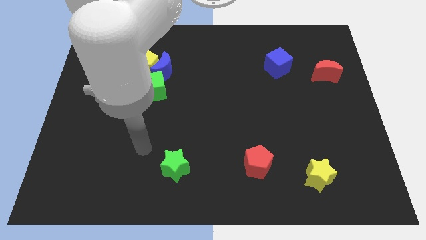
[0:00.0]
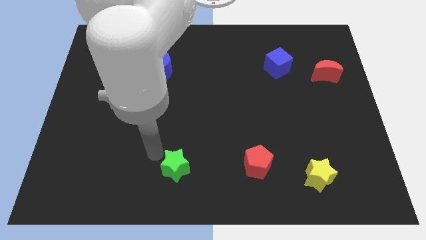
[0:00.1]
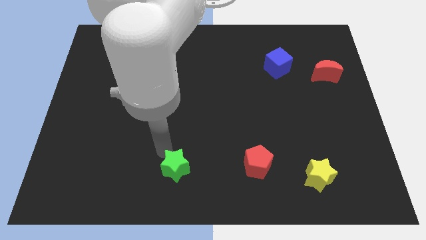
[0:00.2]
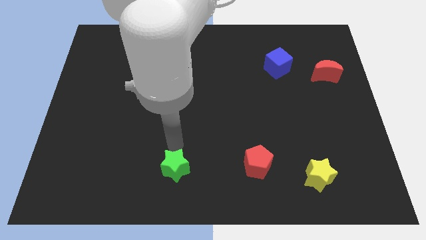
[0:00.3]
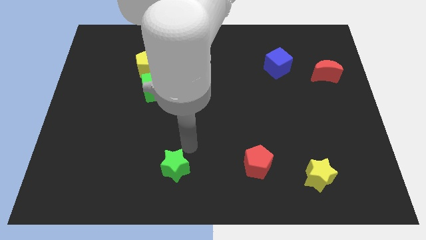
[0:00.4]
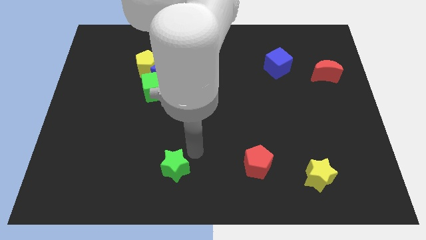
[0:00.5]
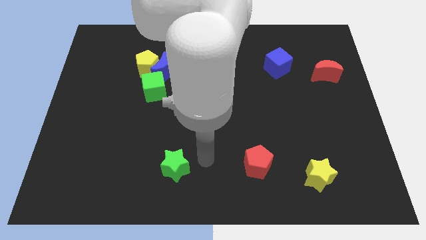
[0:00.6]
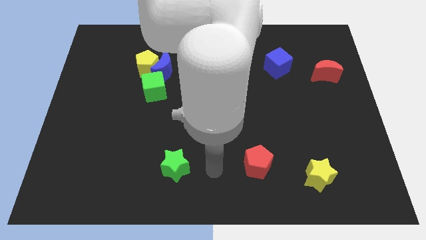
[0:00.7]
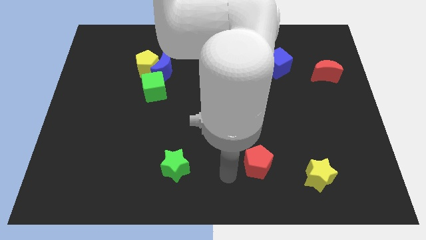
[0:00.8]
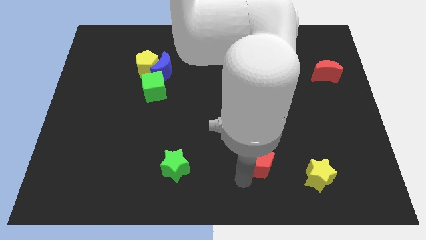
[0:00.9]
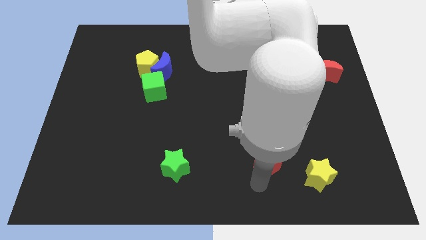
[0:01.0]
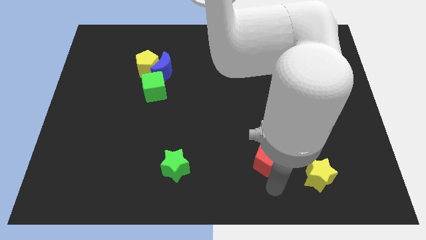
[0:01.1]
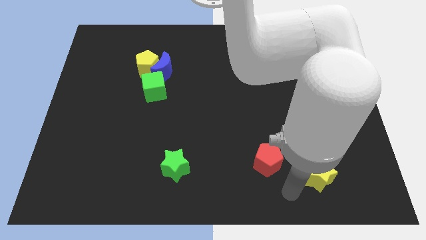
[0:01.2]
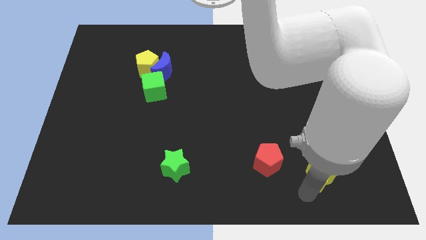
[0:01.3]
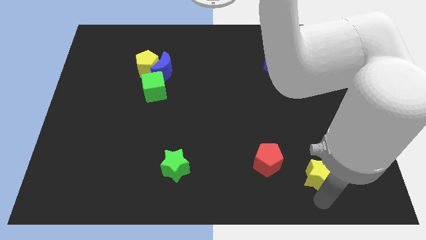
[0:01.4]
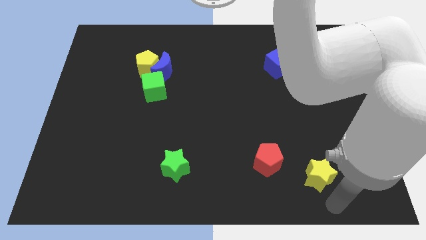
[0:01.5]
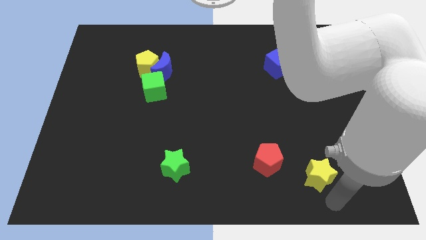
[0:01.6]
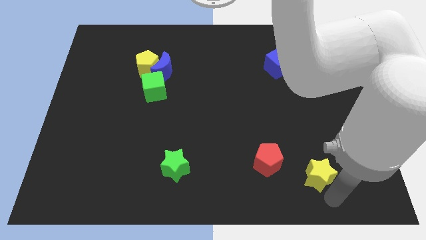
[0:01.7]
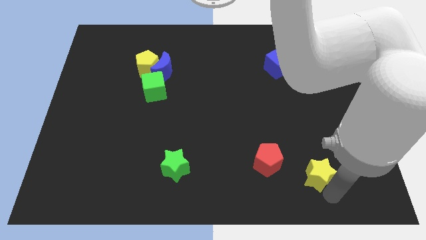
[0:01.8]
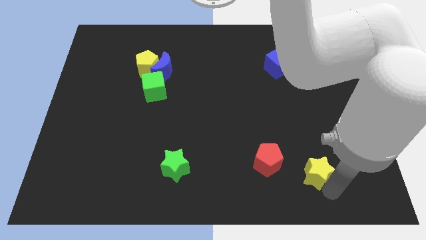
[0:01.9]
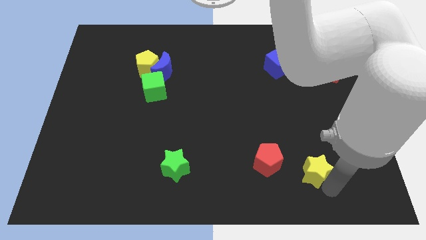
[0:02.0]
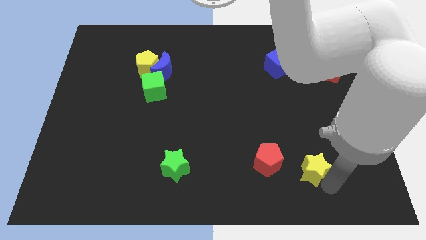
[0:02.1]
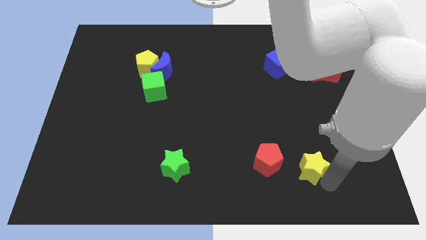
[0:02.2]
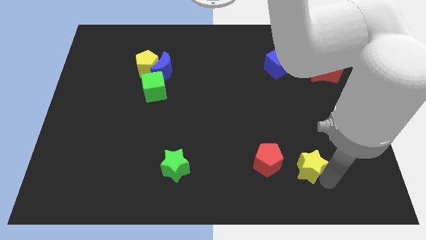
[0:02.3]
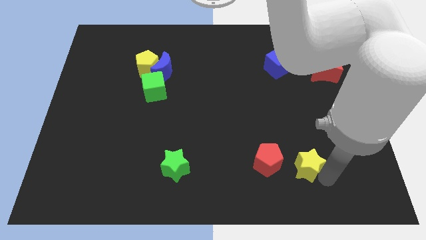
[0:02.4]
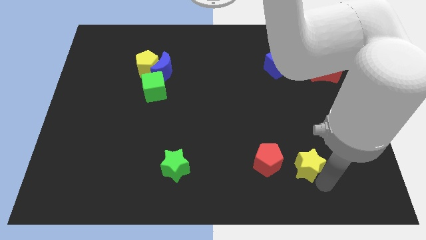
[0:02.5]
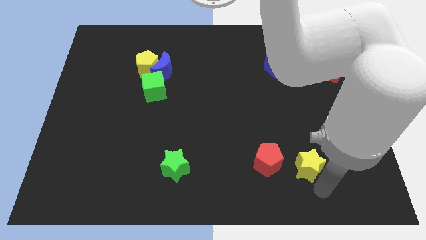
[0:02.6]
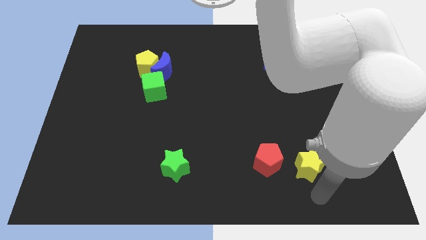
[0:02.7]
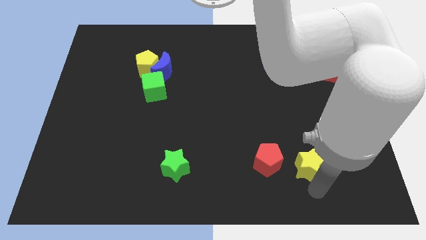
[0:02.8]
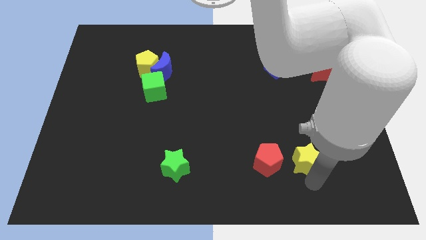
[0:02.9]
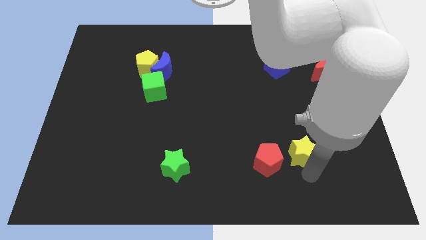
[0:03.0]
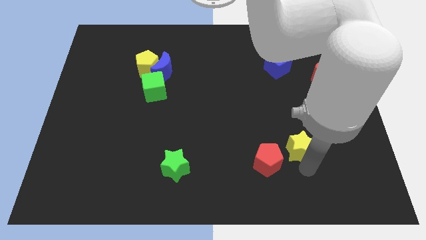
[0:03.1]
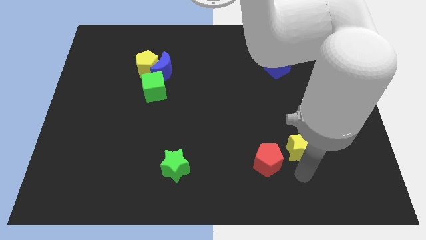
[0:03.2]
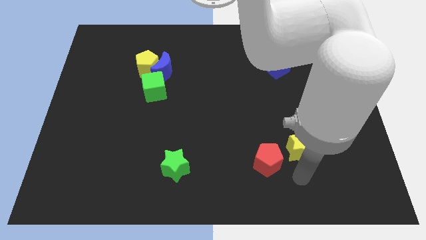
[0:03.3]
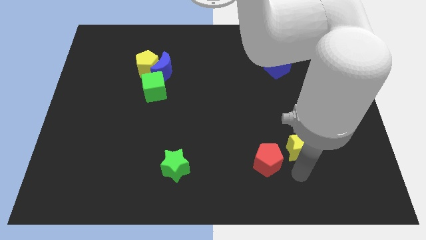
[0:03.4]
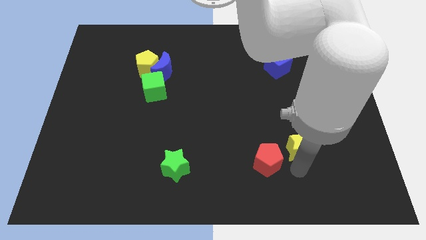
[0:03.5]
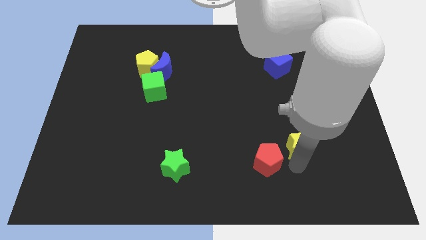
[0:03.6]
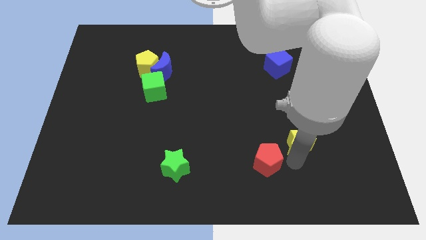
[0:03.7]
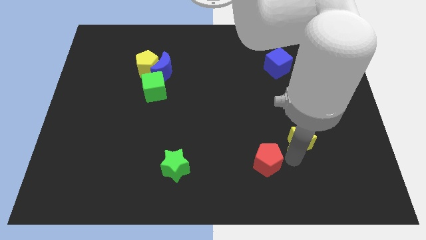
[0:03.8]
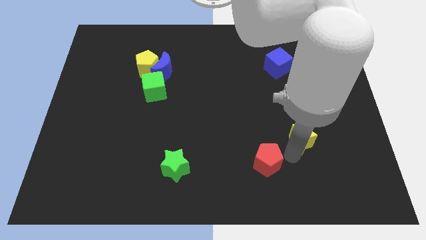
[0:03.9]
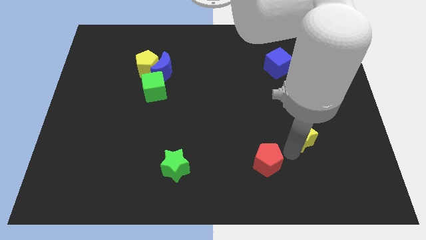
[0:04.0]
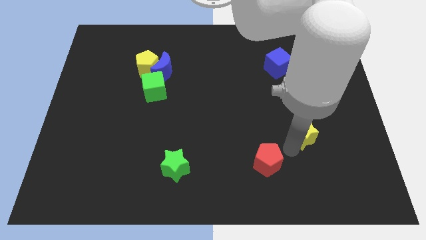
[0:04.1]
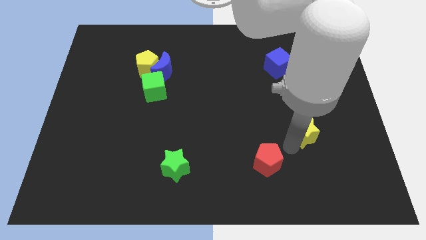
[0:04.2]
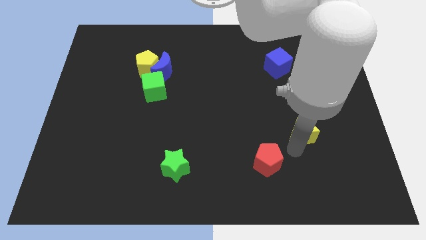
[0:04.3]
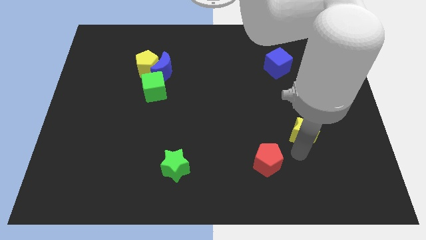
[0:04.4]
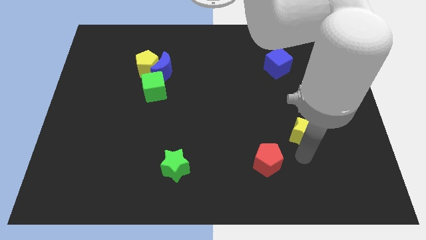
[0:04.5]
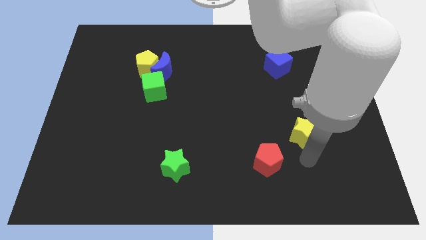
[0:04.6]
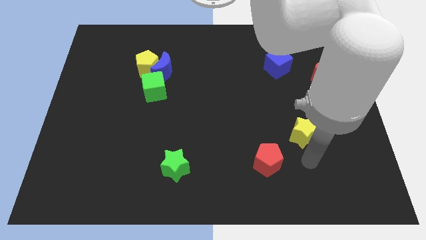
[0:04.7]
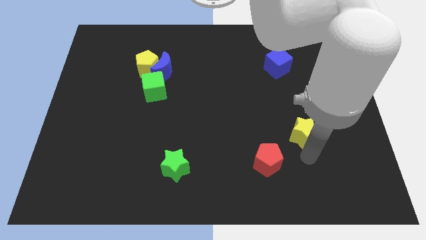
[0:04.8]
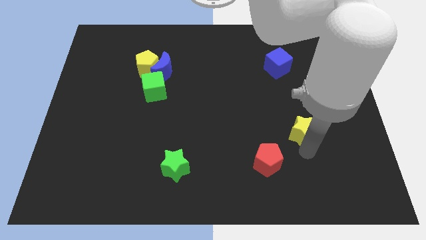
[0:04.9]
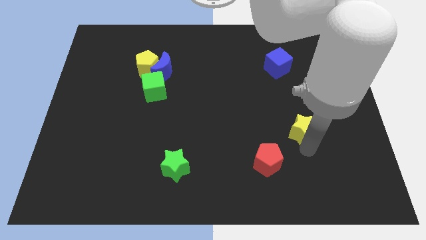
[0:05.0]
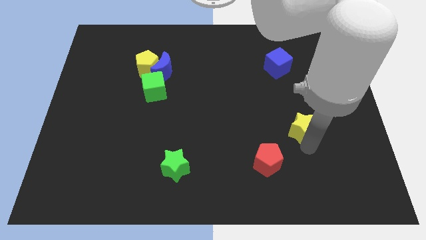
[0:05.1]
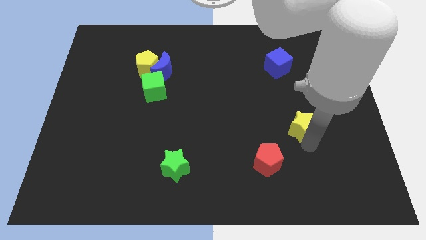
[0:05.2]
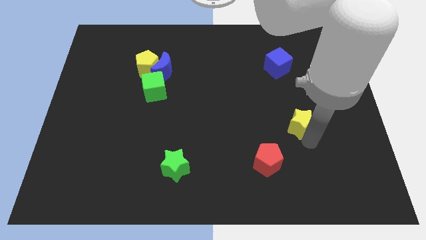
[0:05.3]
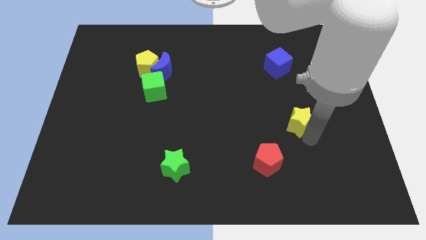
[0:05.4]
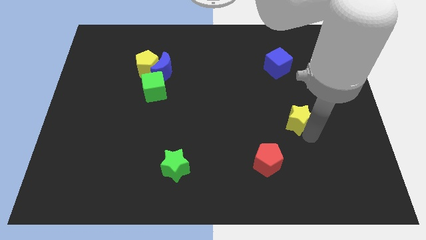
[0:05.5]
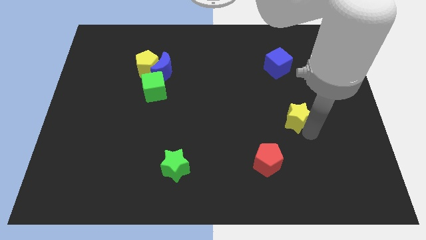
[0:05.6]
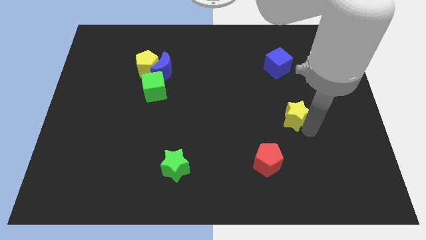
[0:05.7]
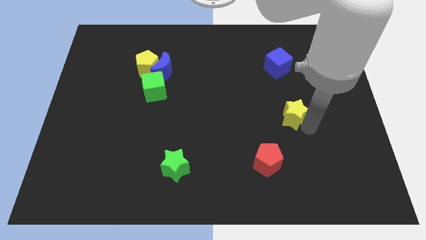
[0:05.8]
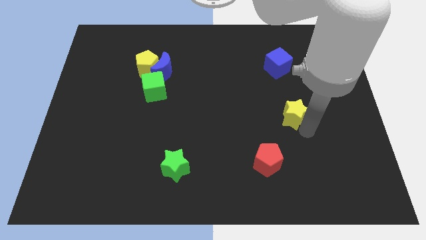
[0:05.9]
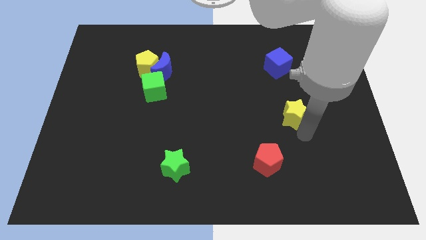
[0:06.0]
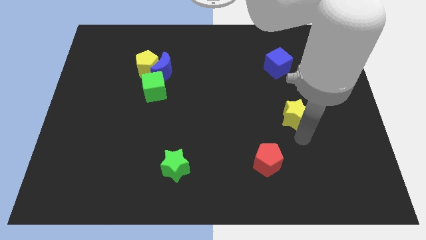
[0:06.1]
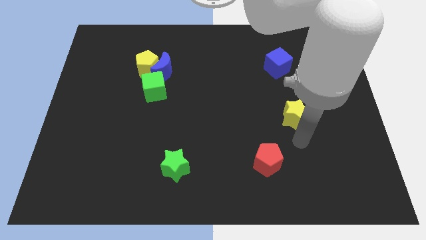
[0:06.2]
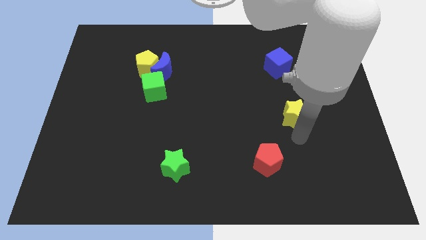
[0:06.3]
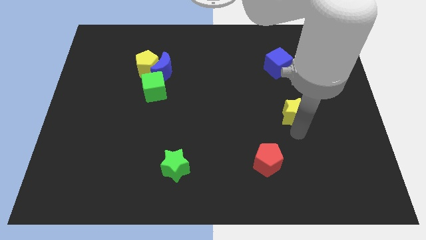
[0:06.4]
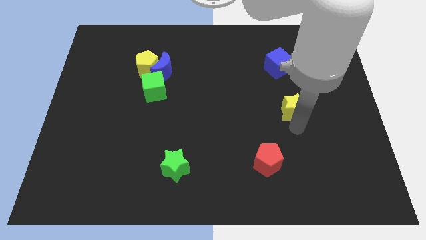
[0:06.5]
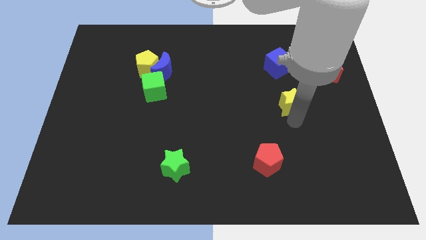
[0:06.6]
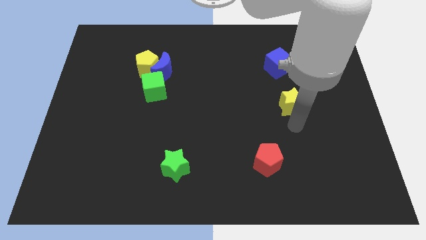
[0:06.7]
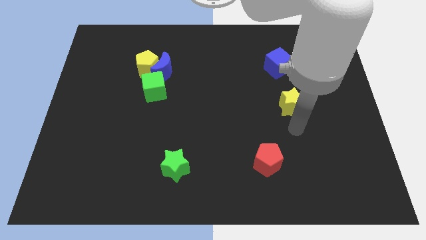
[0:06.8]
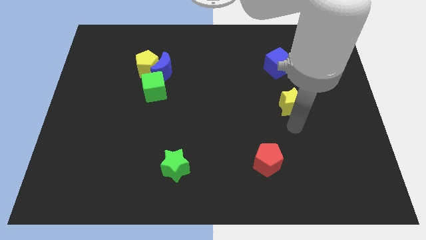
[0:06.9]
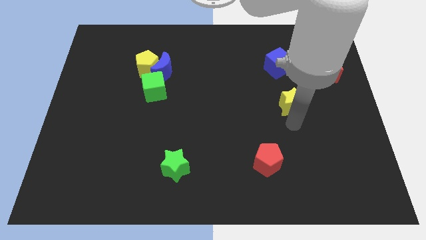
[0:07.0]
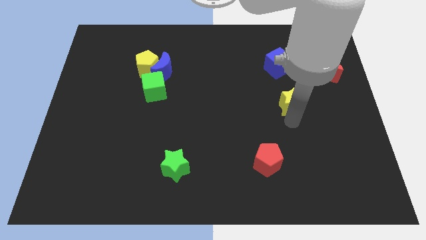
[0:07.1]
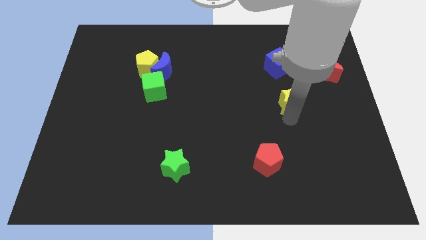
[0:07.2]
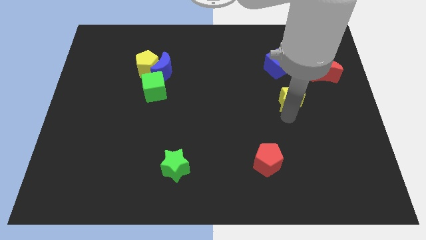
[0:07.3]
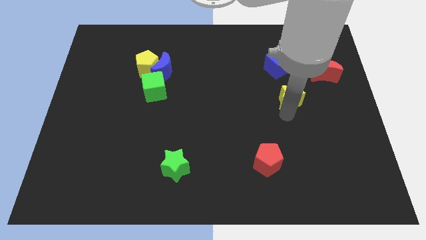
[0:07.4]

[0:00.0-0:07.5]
move the yellow star upwards

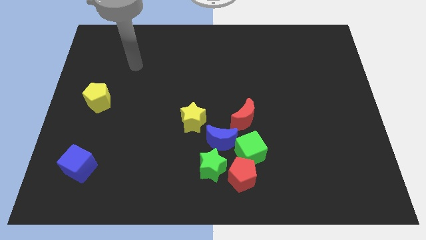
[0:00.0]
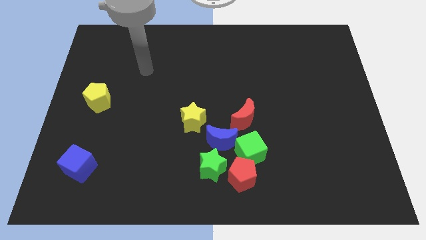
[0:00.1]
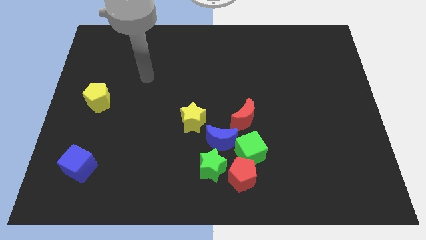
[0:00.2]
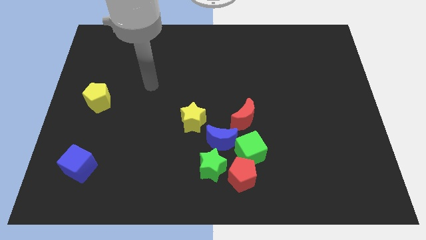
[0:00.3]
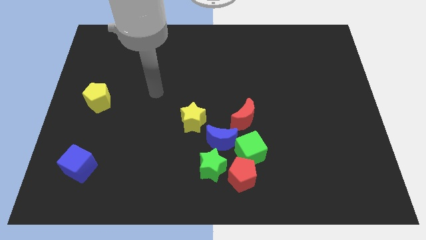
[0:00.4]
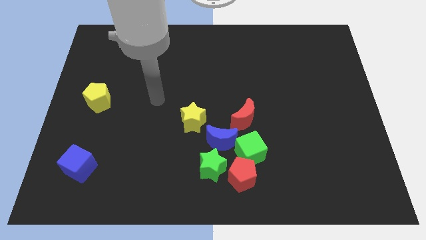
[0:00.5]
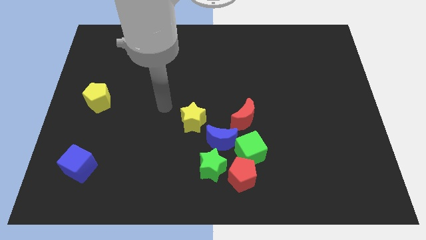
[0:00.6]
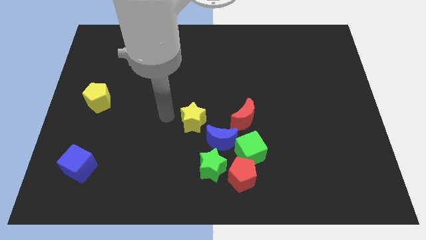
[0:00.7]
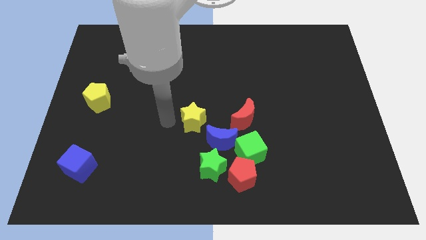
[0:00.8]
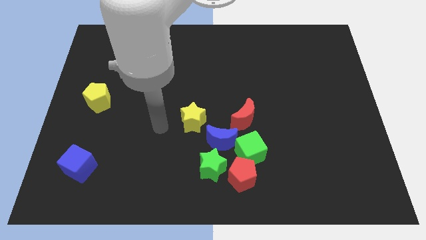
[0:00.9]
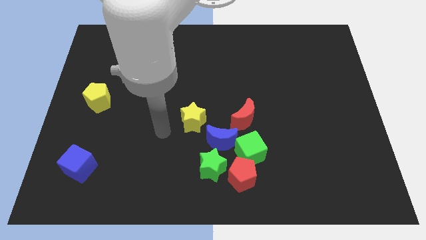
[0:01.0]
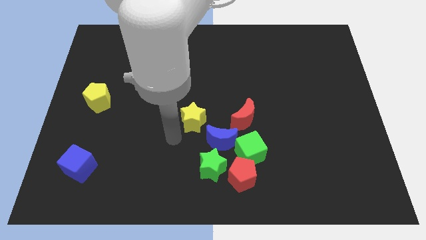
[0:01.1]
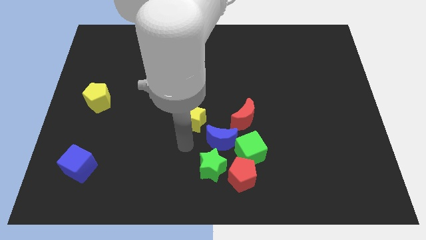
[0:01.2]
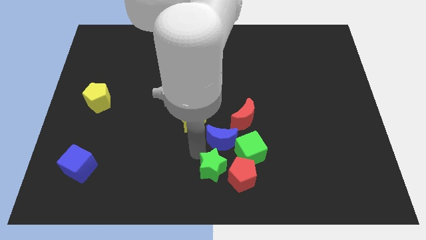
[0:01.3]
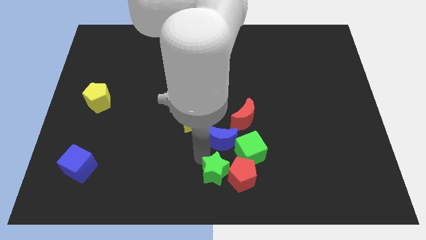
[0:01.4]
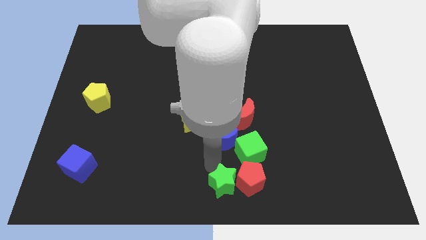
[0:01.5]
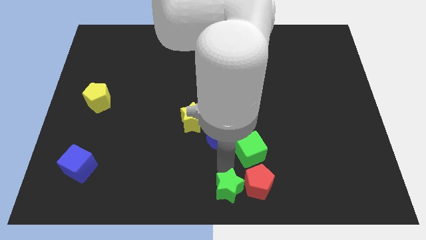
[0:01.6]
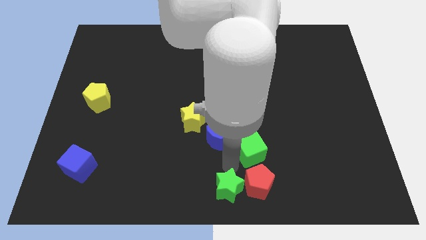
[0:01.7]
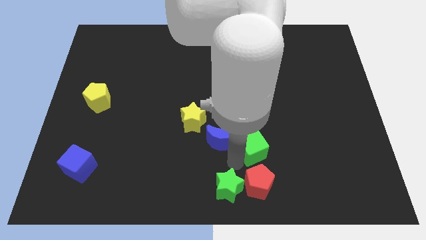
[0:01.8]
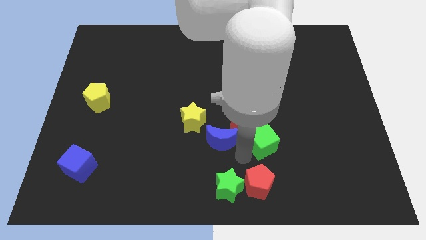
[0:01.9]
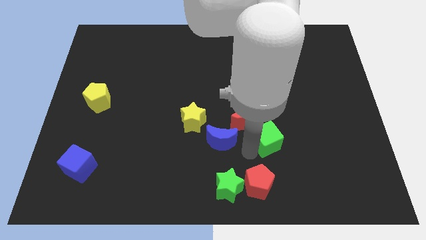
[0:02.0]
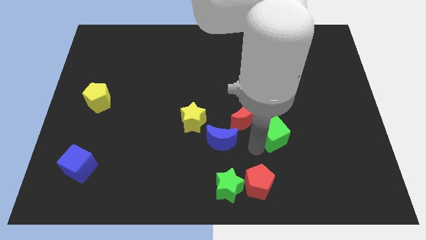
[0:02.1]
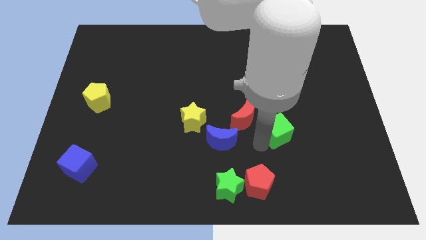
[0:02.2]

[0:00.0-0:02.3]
slide the green cube up and to the right diagonally a little bit
